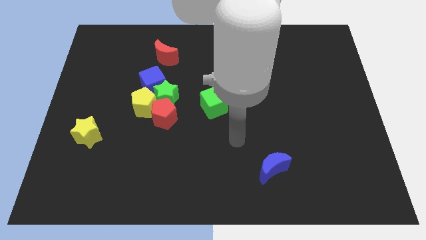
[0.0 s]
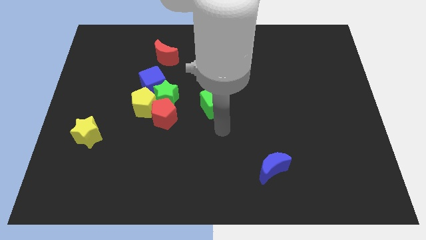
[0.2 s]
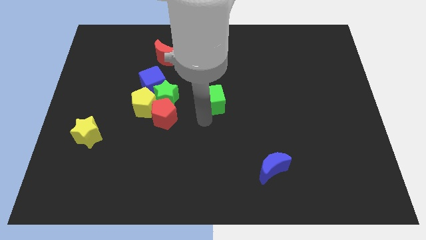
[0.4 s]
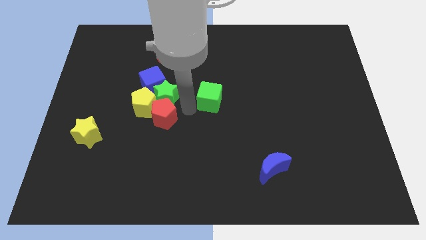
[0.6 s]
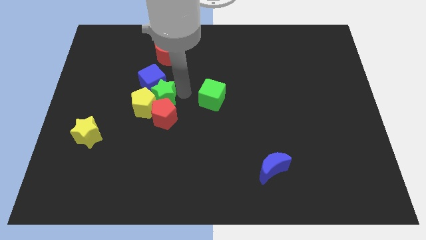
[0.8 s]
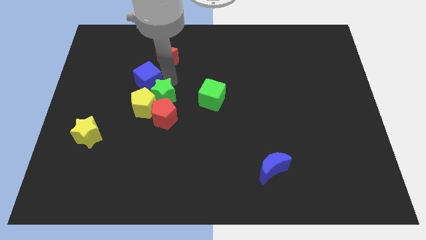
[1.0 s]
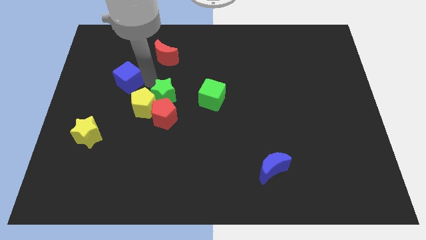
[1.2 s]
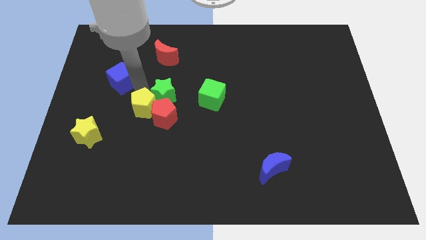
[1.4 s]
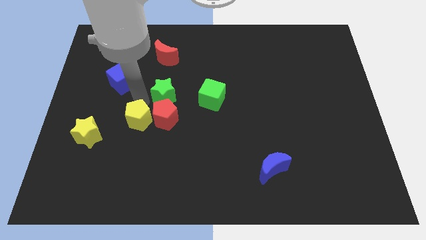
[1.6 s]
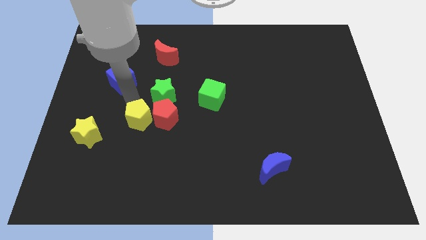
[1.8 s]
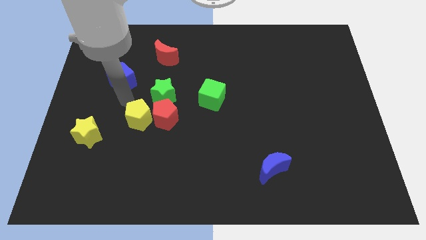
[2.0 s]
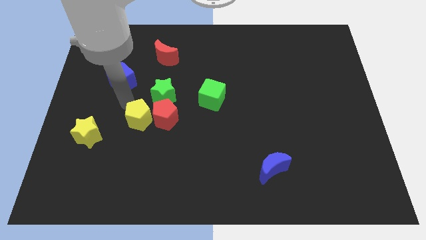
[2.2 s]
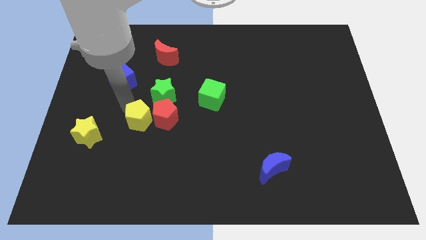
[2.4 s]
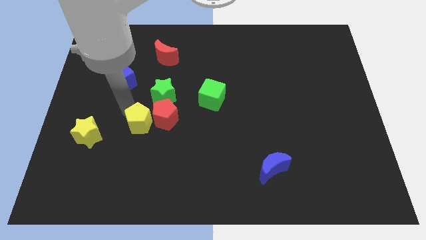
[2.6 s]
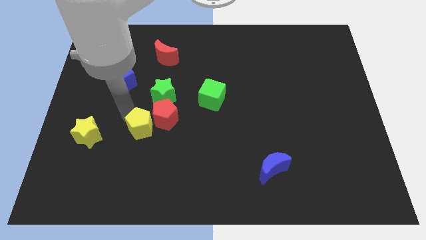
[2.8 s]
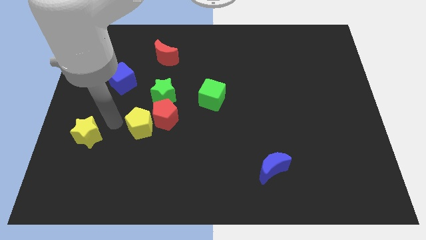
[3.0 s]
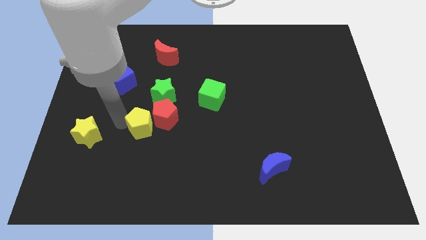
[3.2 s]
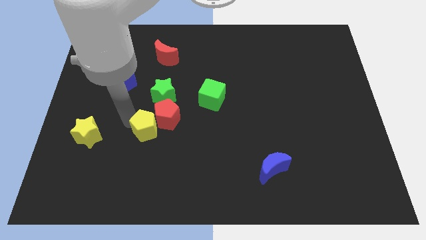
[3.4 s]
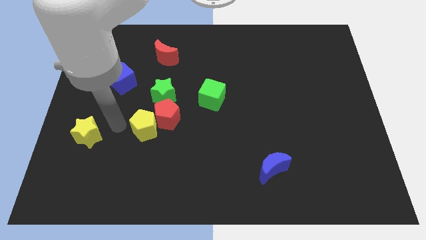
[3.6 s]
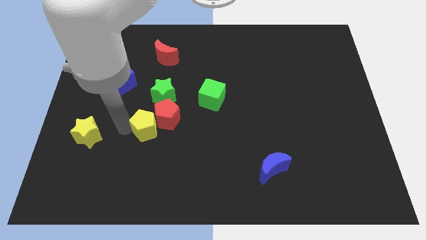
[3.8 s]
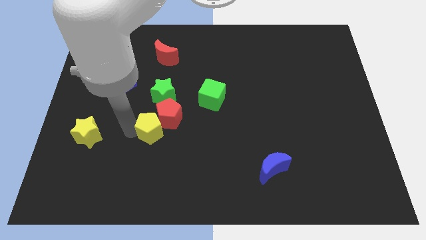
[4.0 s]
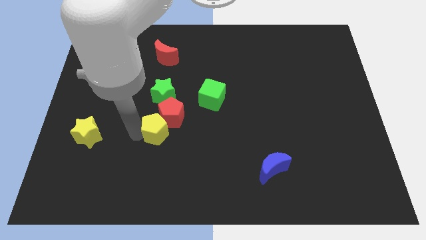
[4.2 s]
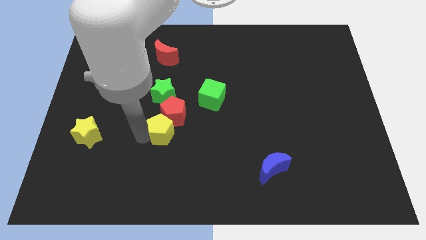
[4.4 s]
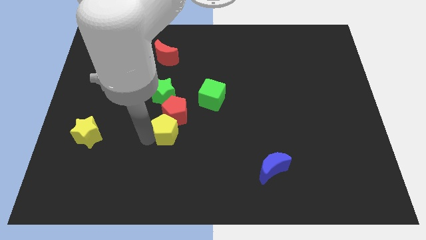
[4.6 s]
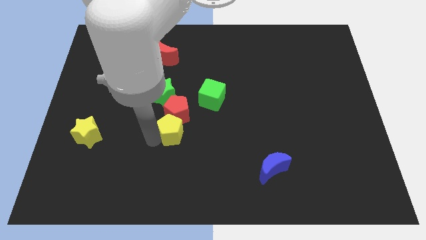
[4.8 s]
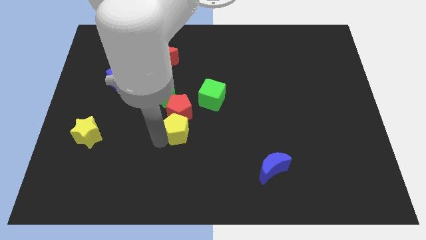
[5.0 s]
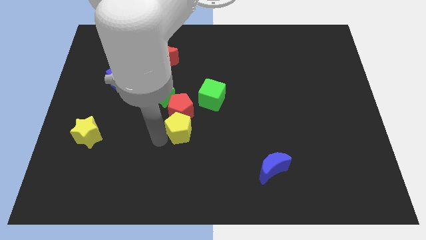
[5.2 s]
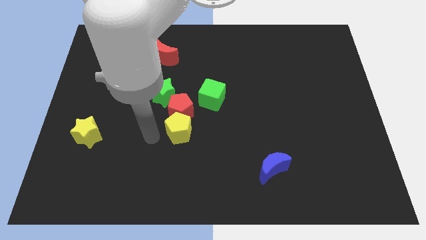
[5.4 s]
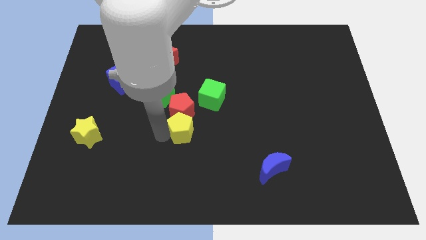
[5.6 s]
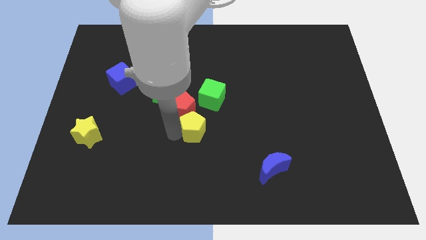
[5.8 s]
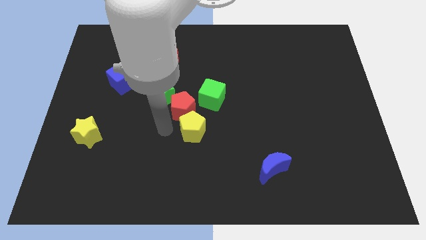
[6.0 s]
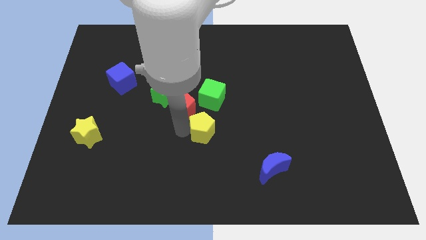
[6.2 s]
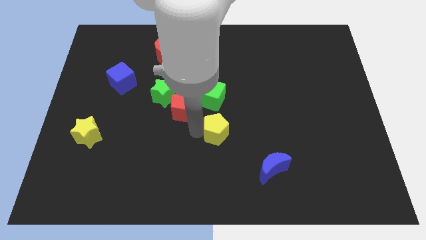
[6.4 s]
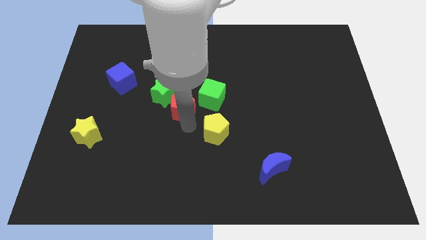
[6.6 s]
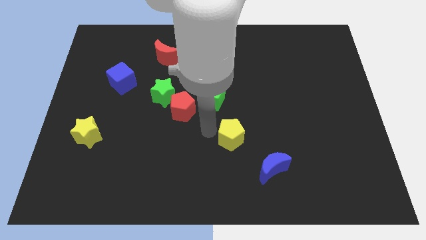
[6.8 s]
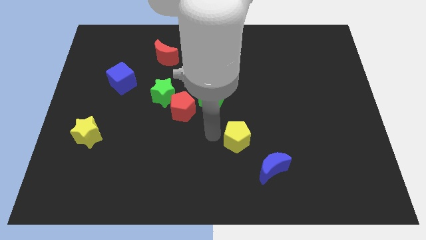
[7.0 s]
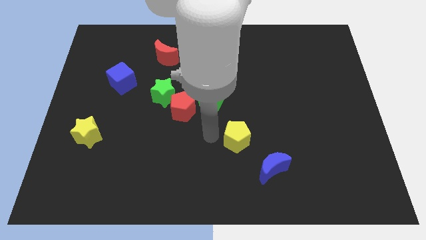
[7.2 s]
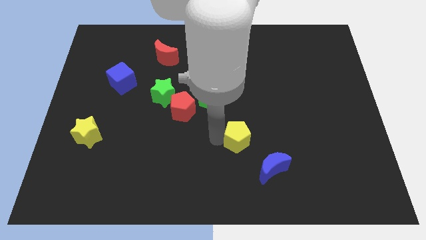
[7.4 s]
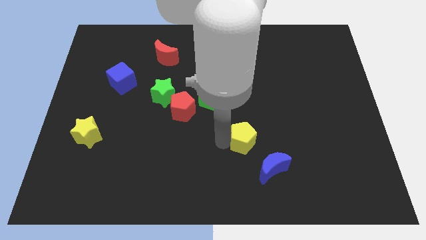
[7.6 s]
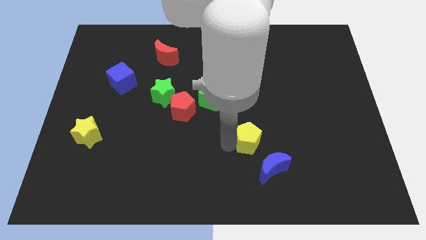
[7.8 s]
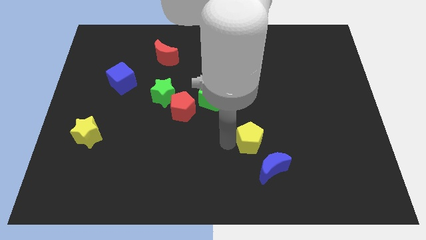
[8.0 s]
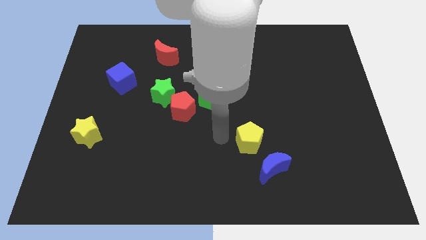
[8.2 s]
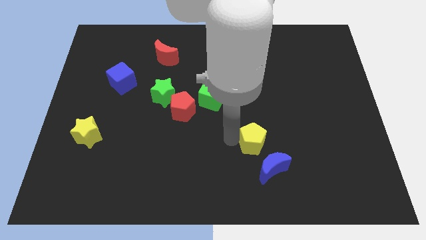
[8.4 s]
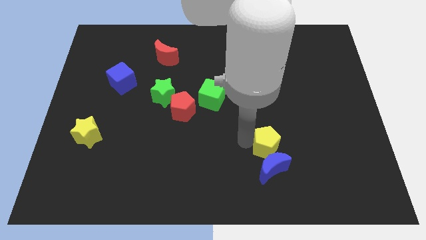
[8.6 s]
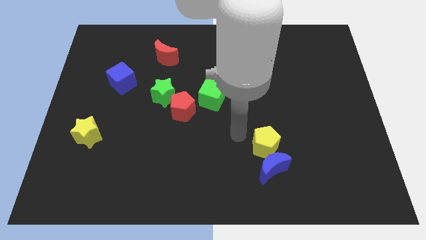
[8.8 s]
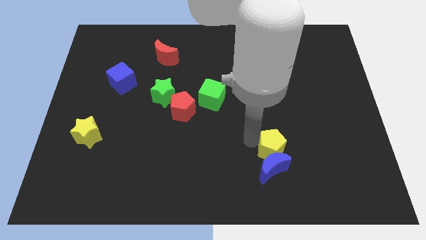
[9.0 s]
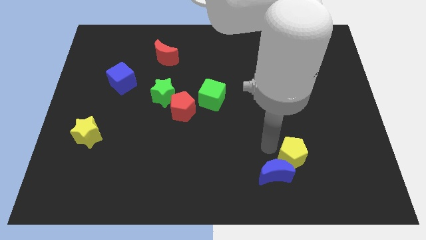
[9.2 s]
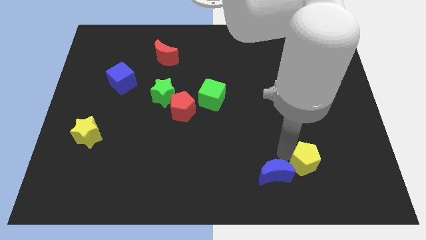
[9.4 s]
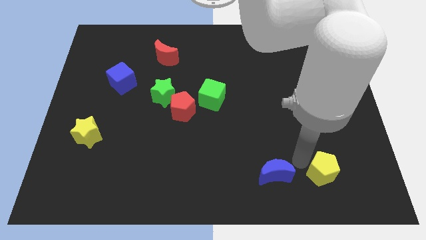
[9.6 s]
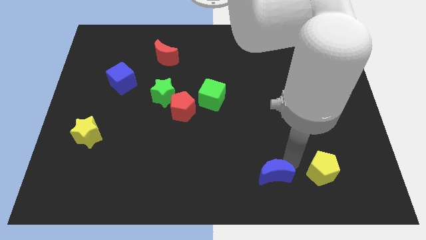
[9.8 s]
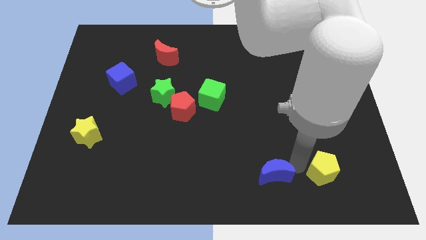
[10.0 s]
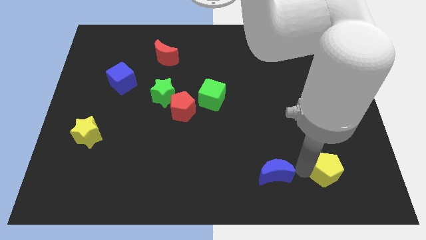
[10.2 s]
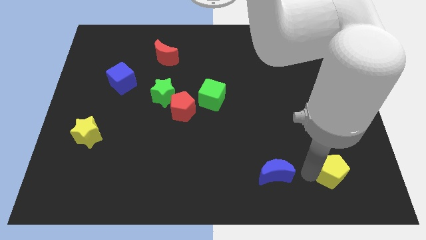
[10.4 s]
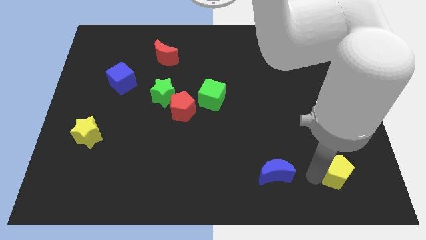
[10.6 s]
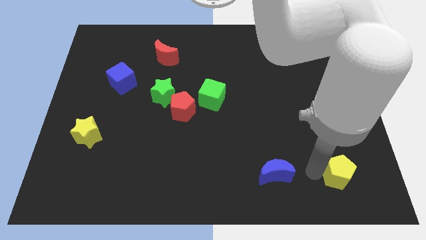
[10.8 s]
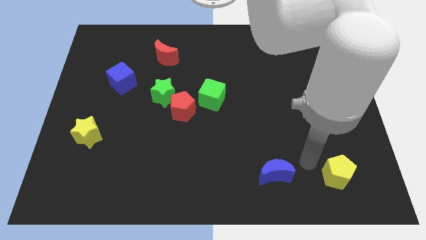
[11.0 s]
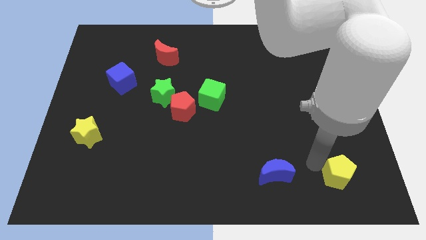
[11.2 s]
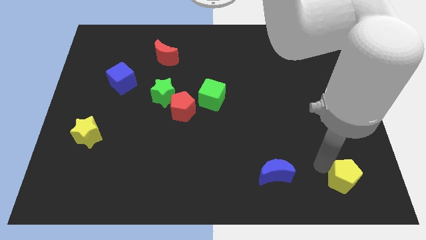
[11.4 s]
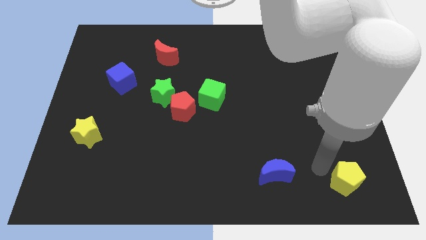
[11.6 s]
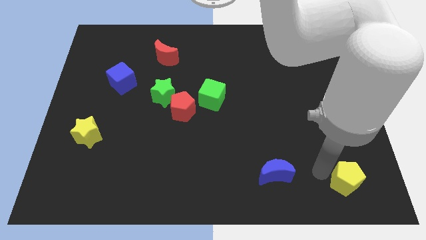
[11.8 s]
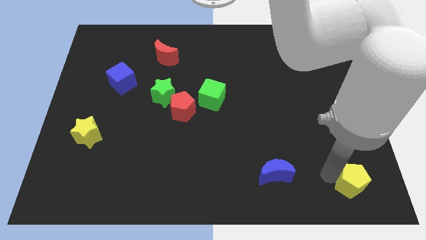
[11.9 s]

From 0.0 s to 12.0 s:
put the yellow pentagon to the bottom right
